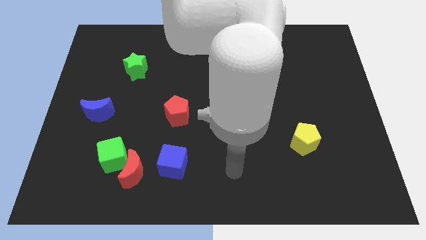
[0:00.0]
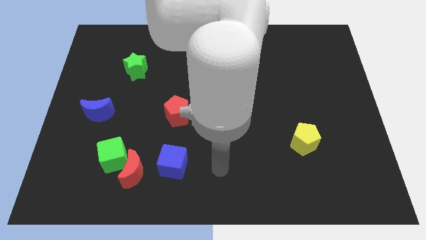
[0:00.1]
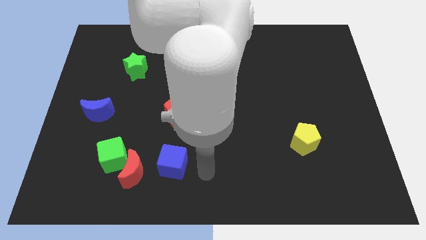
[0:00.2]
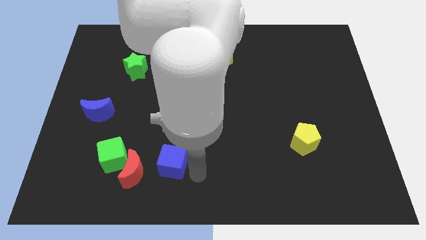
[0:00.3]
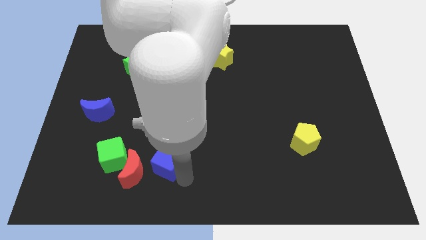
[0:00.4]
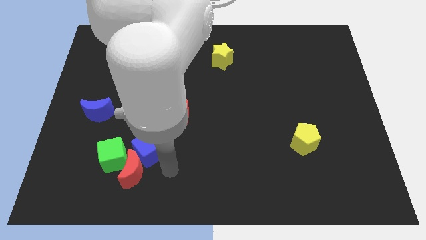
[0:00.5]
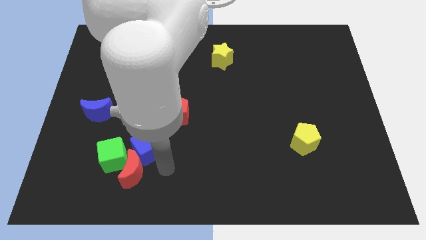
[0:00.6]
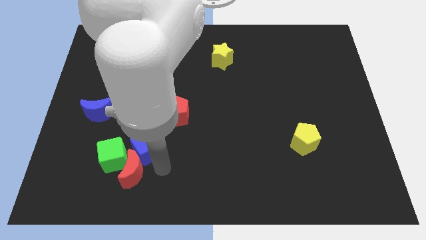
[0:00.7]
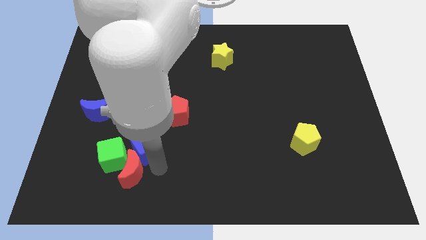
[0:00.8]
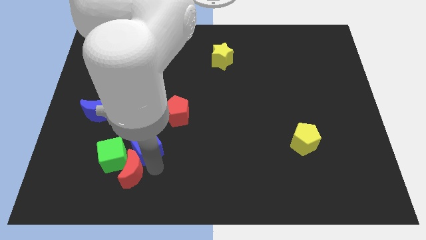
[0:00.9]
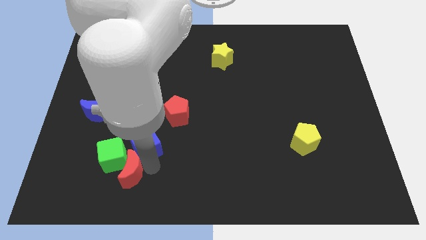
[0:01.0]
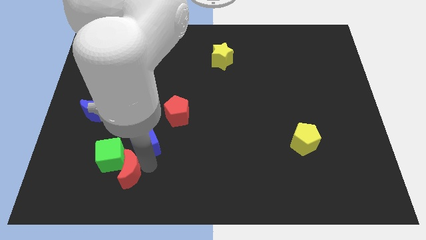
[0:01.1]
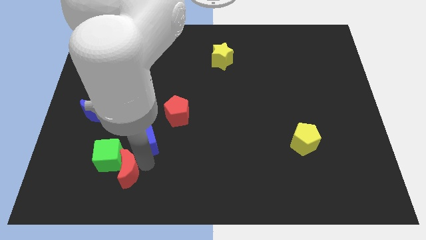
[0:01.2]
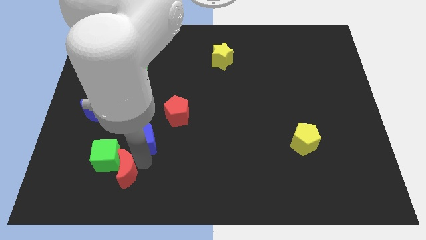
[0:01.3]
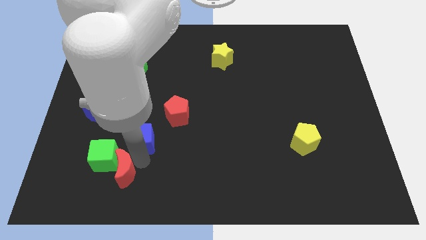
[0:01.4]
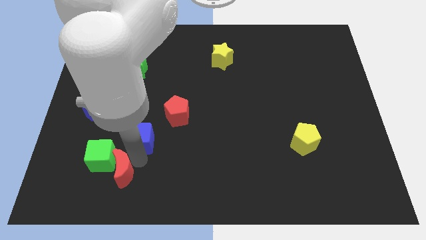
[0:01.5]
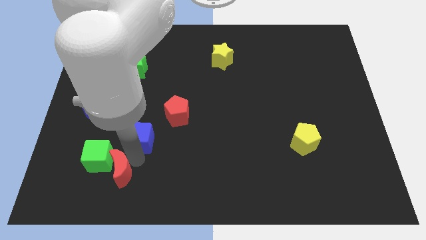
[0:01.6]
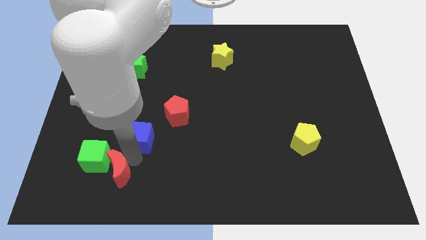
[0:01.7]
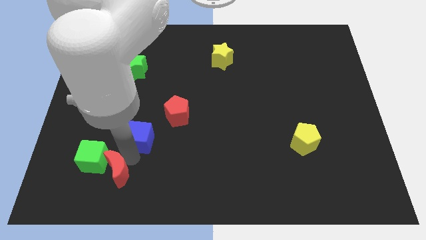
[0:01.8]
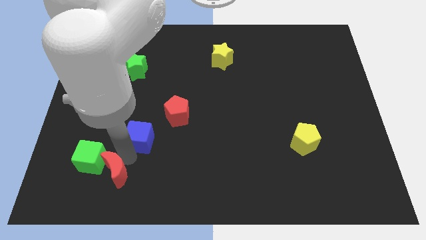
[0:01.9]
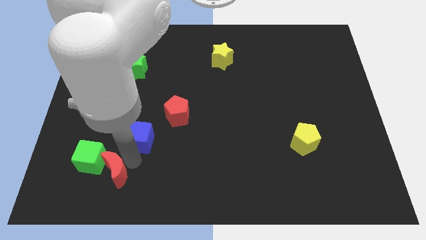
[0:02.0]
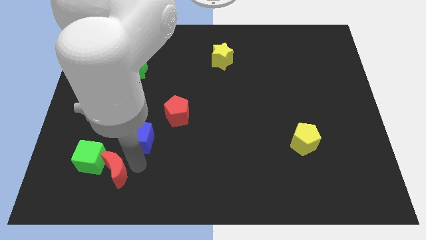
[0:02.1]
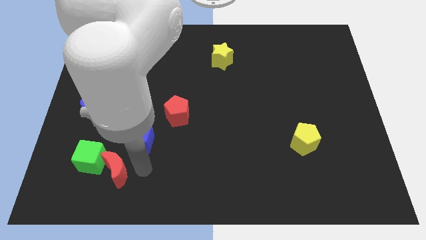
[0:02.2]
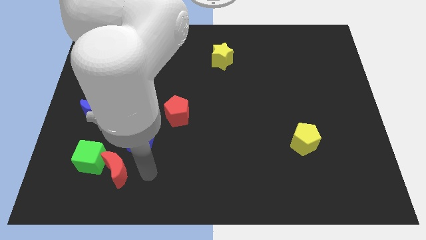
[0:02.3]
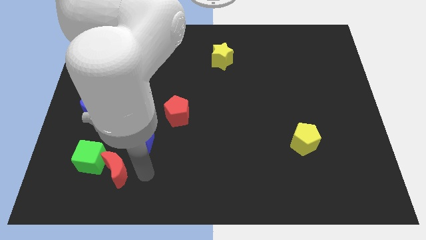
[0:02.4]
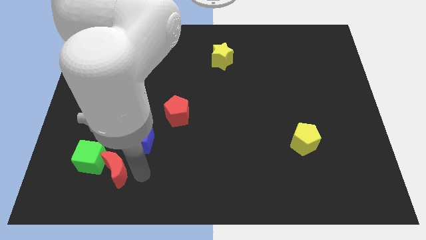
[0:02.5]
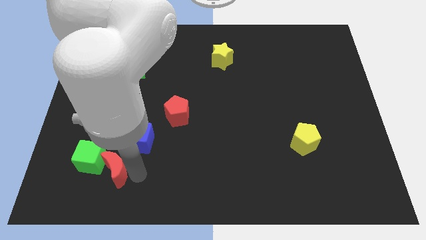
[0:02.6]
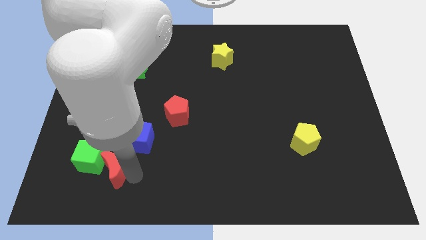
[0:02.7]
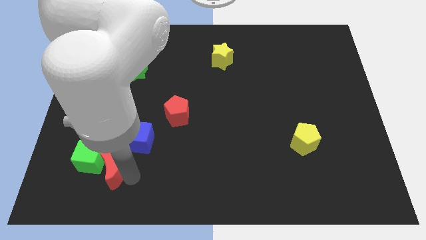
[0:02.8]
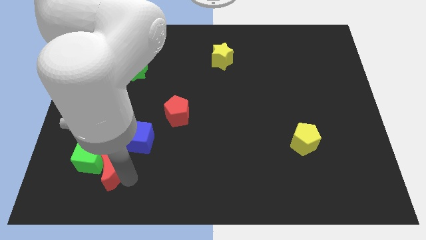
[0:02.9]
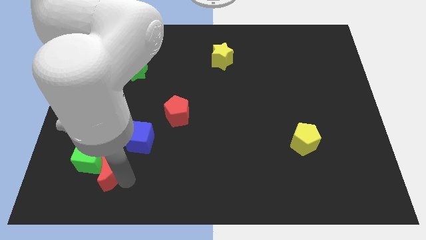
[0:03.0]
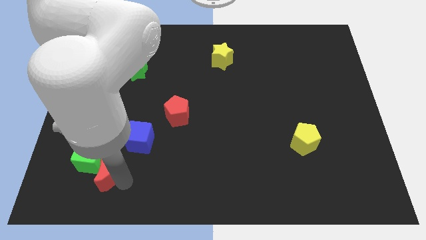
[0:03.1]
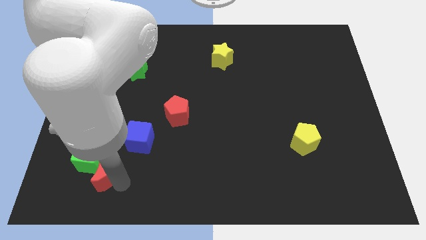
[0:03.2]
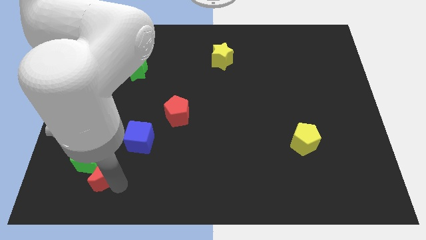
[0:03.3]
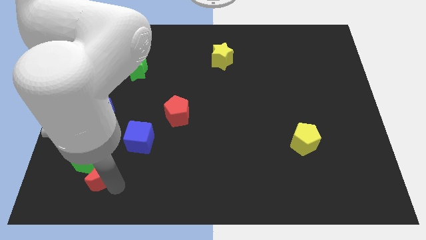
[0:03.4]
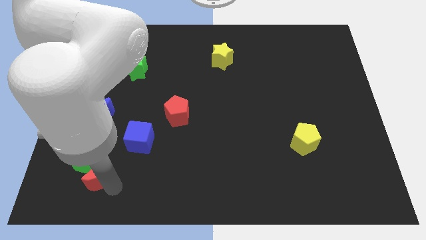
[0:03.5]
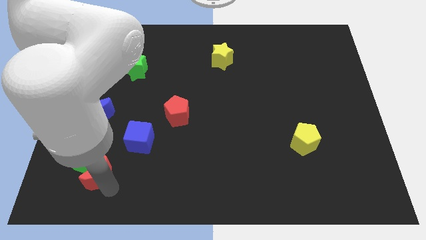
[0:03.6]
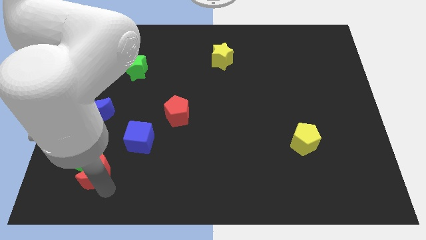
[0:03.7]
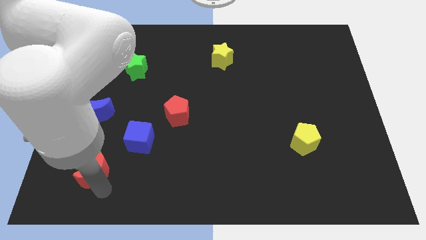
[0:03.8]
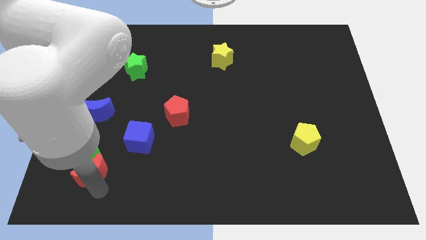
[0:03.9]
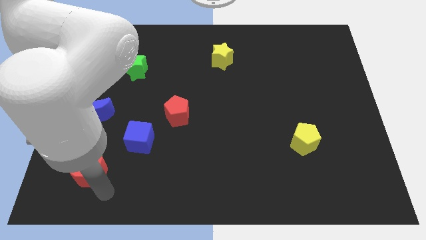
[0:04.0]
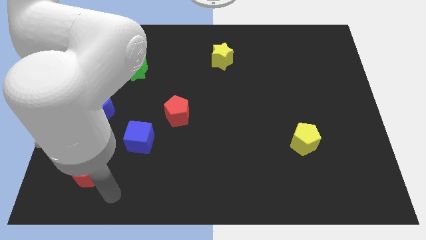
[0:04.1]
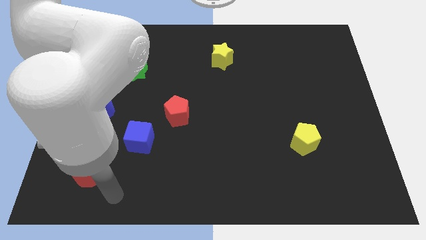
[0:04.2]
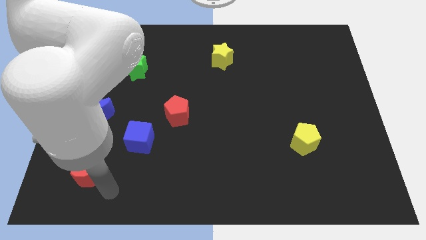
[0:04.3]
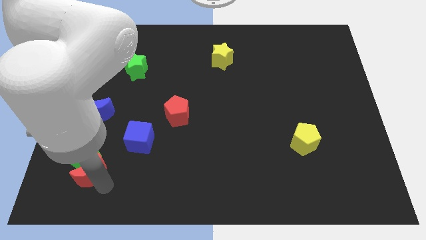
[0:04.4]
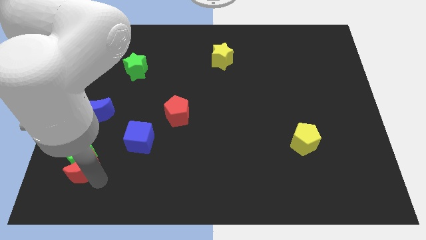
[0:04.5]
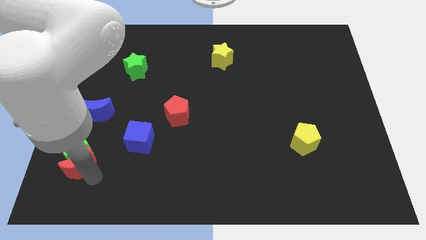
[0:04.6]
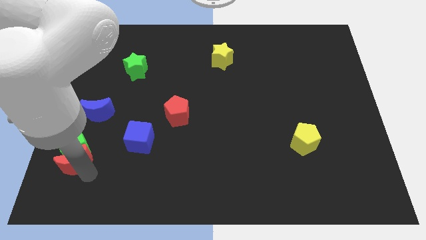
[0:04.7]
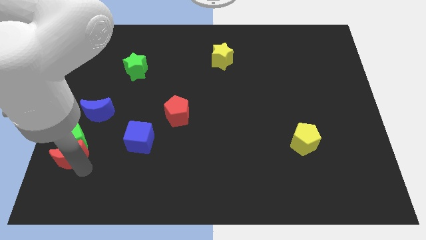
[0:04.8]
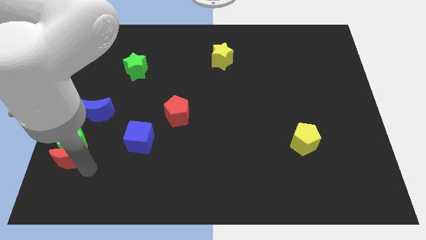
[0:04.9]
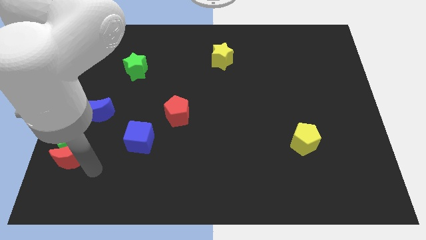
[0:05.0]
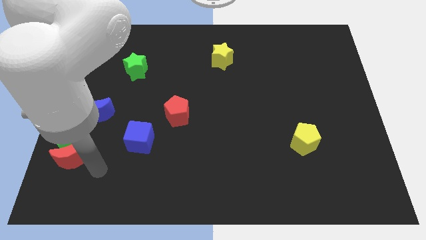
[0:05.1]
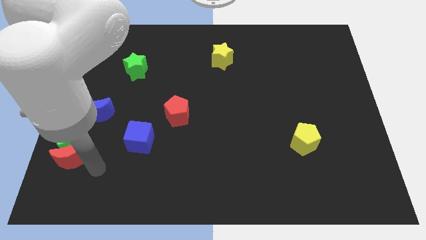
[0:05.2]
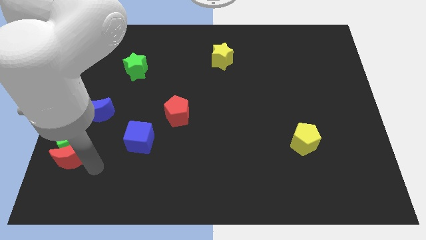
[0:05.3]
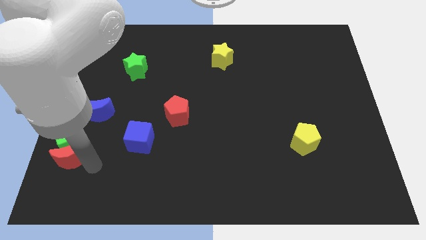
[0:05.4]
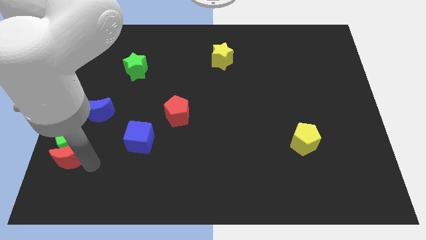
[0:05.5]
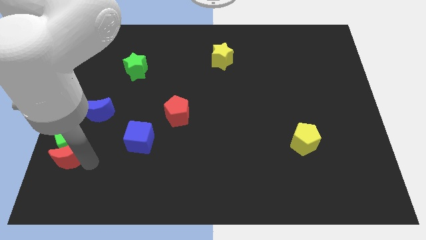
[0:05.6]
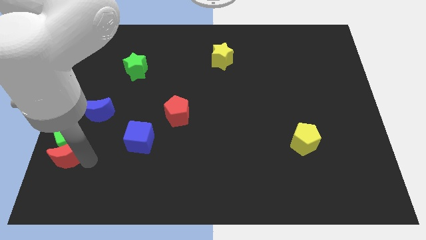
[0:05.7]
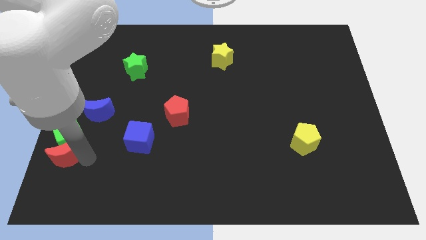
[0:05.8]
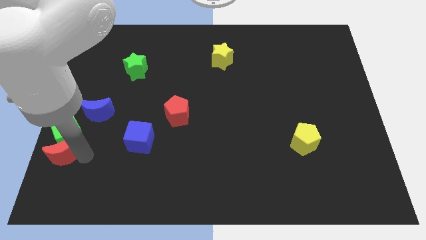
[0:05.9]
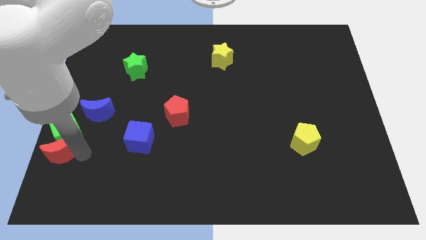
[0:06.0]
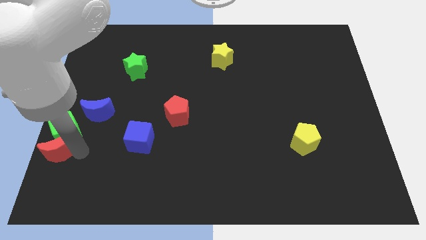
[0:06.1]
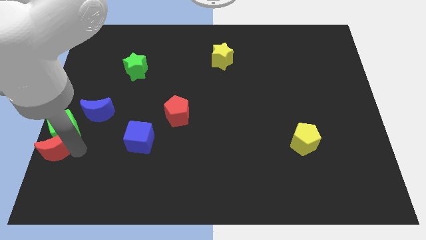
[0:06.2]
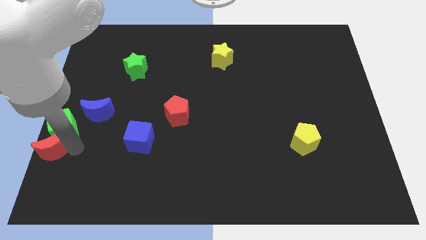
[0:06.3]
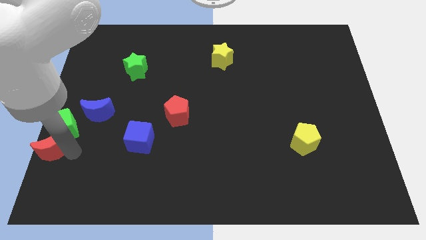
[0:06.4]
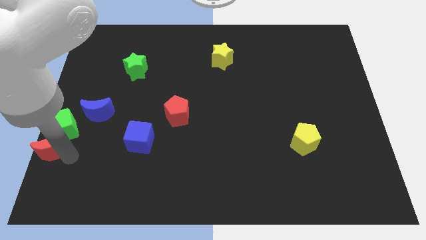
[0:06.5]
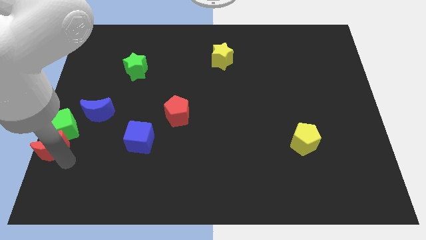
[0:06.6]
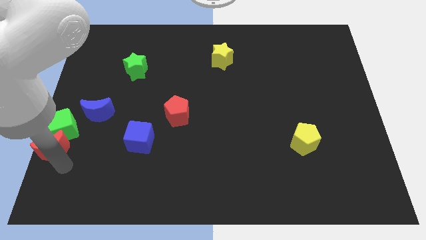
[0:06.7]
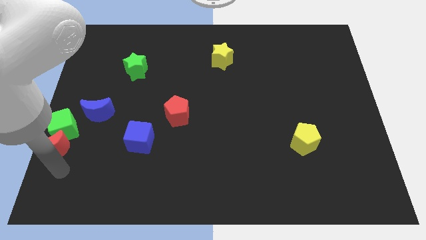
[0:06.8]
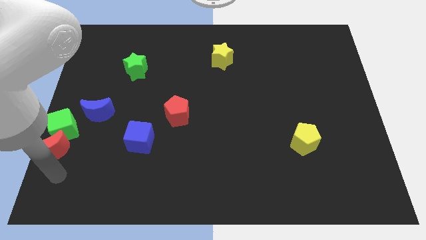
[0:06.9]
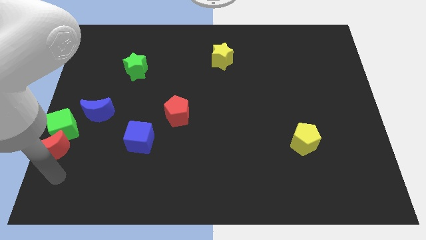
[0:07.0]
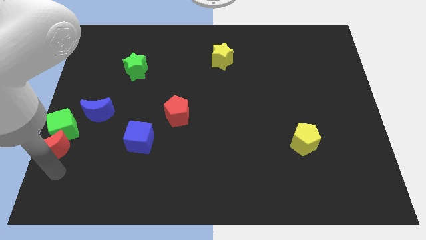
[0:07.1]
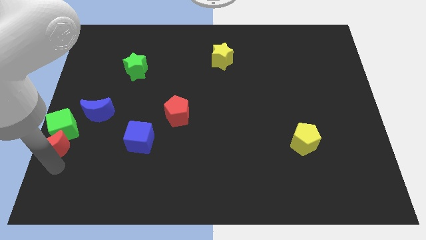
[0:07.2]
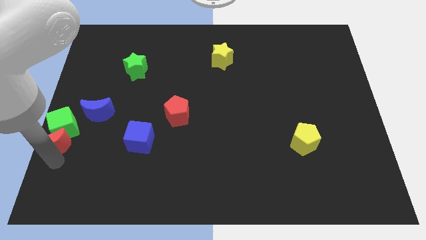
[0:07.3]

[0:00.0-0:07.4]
push the red moon to the left side of the board
